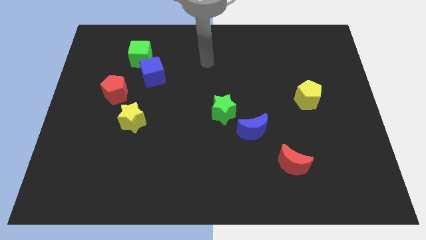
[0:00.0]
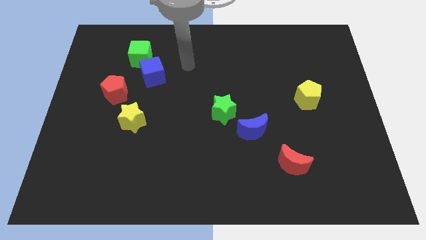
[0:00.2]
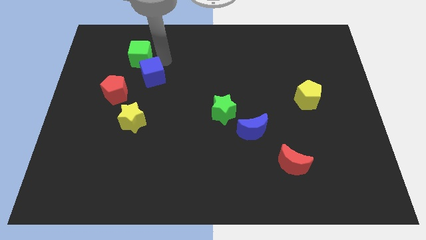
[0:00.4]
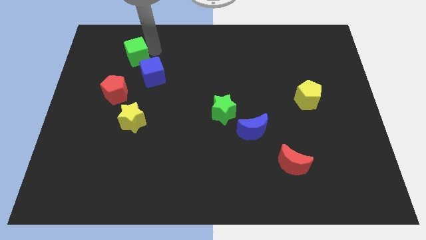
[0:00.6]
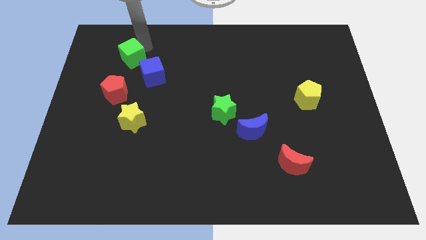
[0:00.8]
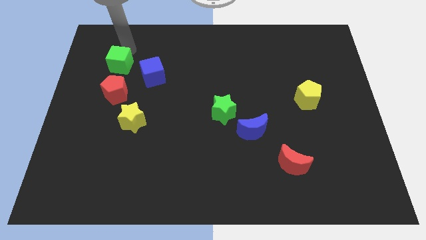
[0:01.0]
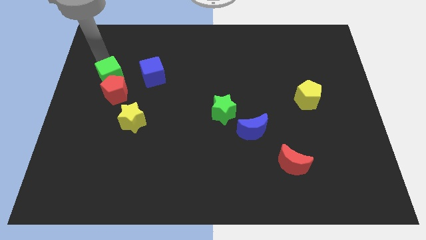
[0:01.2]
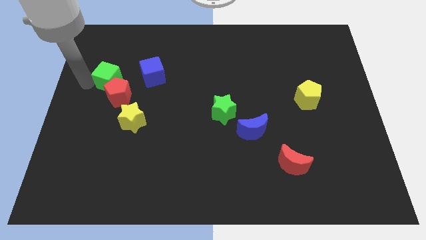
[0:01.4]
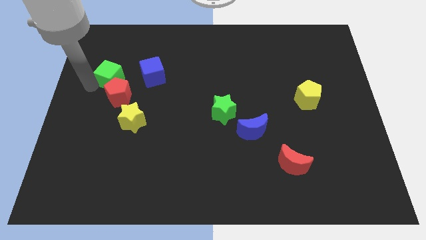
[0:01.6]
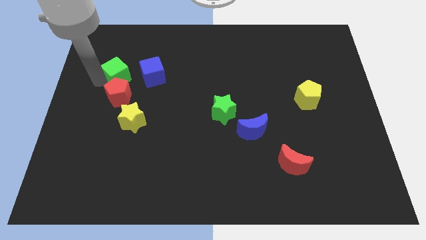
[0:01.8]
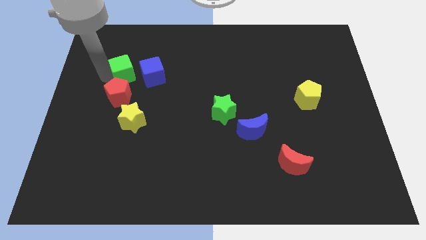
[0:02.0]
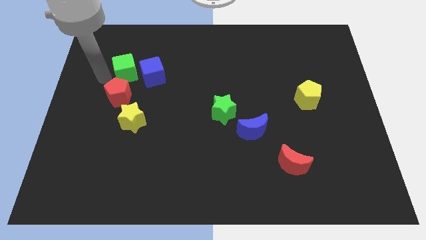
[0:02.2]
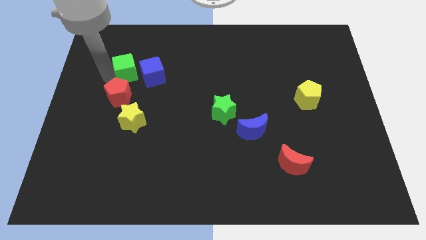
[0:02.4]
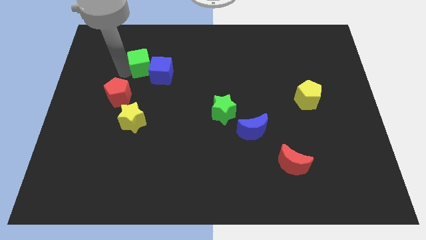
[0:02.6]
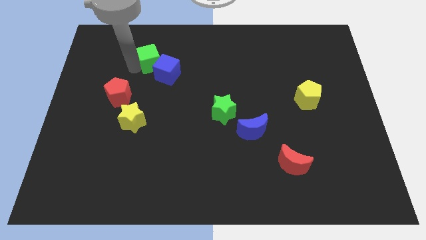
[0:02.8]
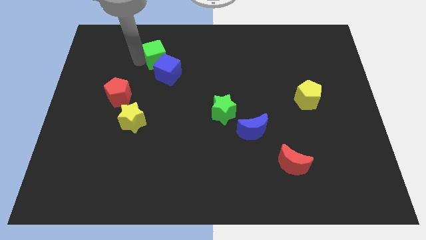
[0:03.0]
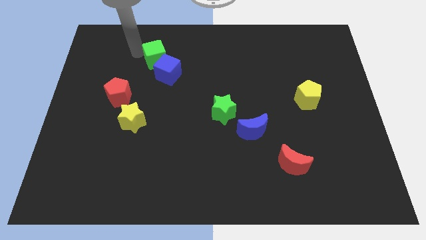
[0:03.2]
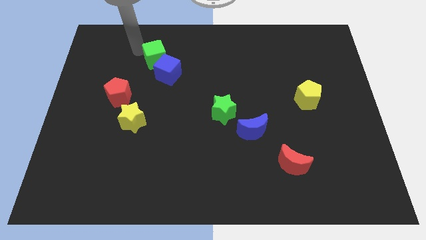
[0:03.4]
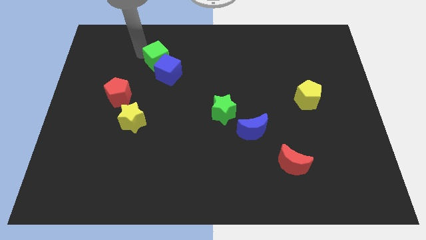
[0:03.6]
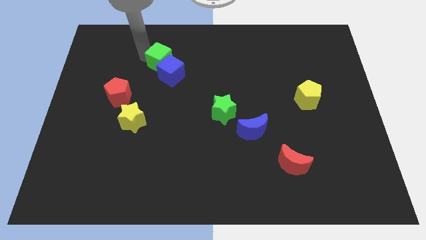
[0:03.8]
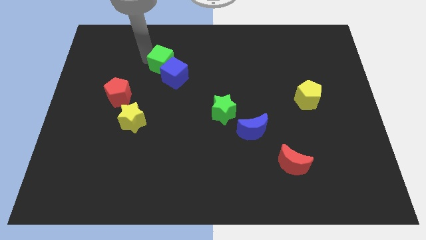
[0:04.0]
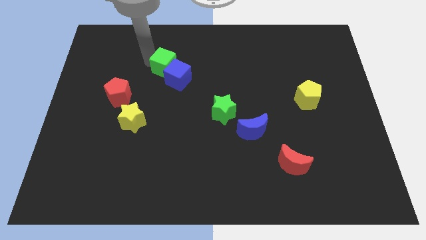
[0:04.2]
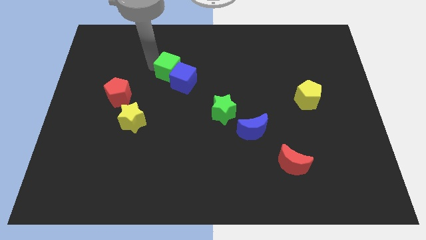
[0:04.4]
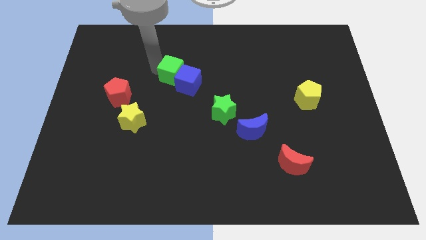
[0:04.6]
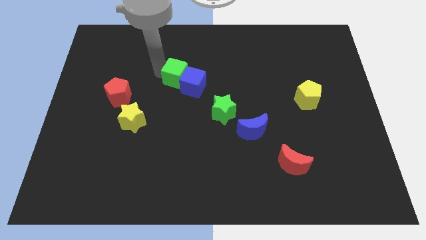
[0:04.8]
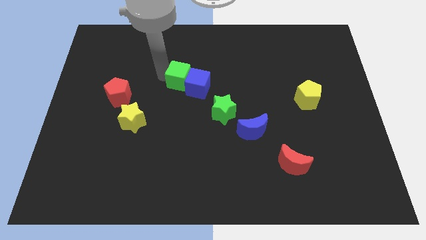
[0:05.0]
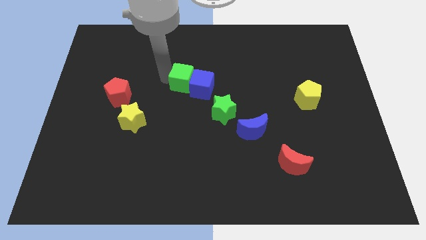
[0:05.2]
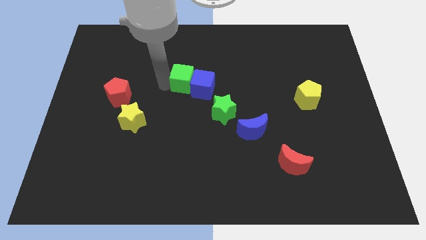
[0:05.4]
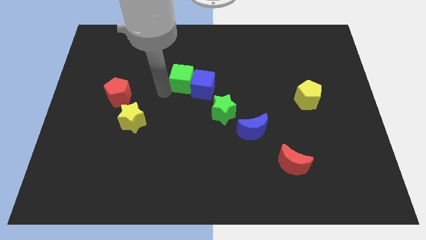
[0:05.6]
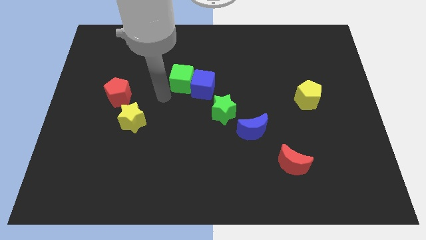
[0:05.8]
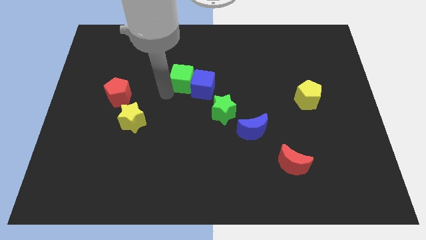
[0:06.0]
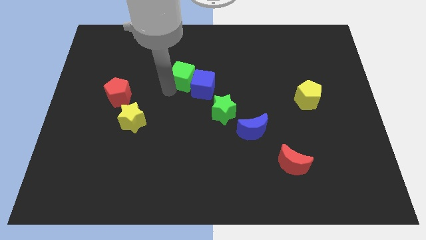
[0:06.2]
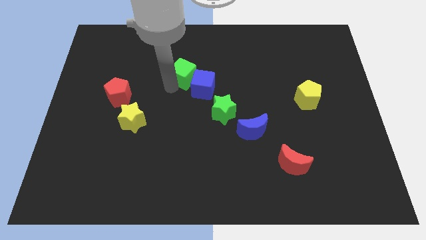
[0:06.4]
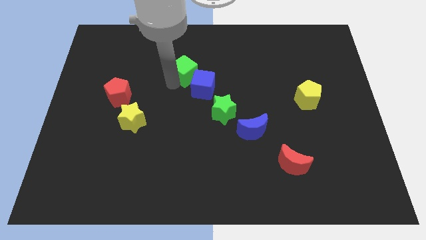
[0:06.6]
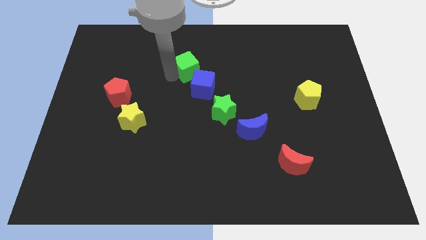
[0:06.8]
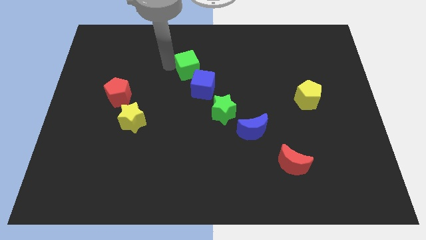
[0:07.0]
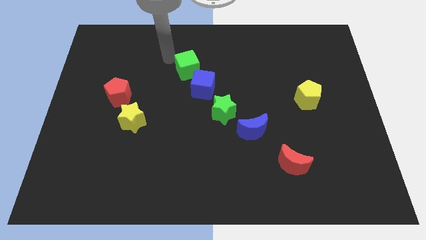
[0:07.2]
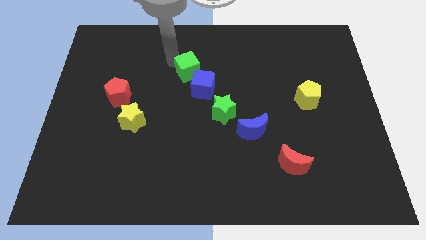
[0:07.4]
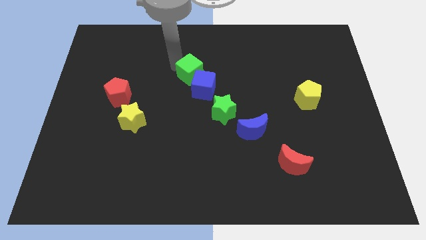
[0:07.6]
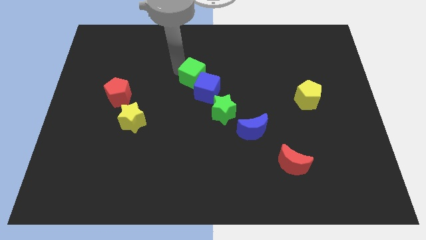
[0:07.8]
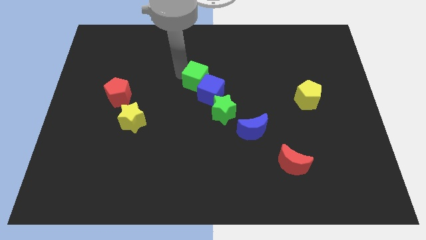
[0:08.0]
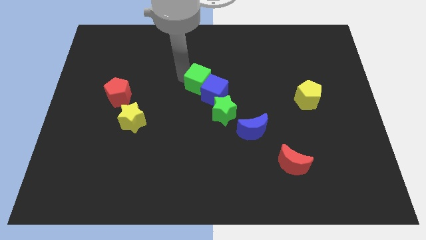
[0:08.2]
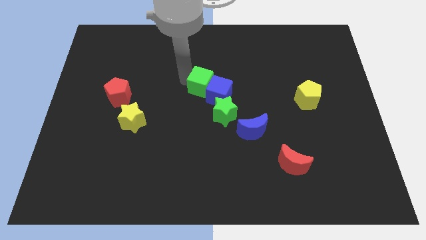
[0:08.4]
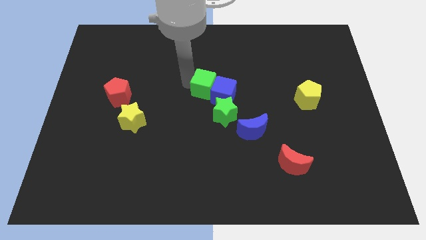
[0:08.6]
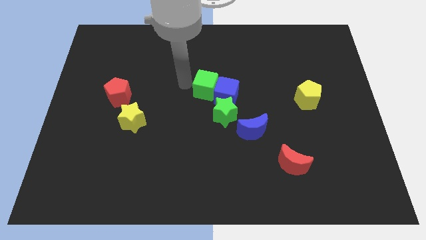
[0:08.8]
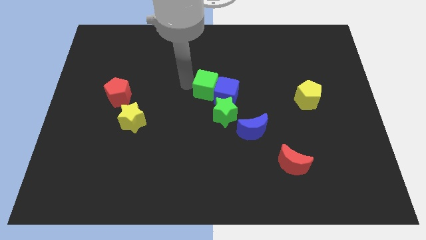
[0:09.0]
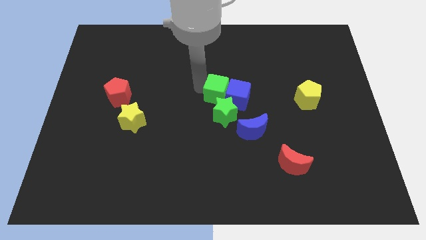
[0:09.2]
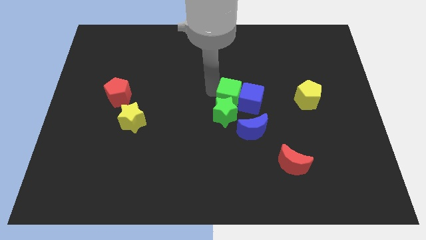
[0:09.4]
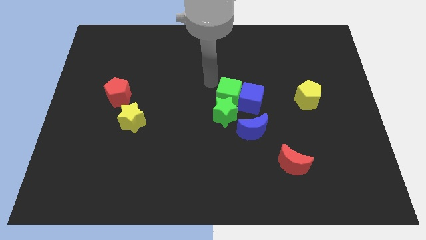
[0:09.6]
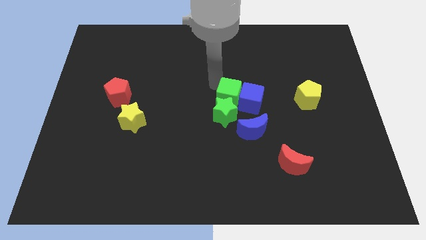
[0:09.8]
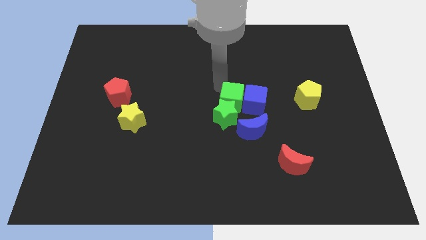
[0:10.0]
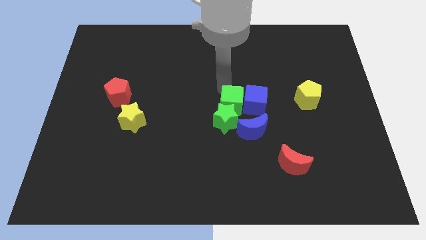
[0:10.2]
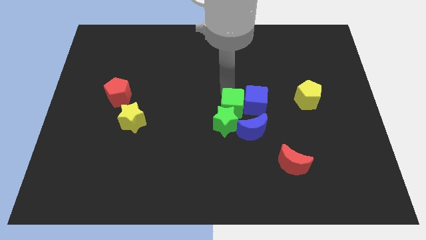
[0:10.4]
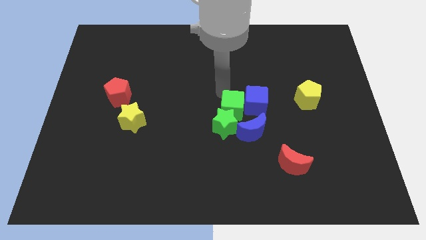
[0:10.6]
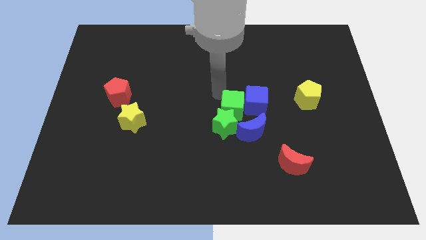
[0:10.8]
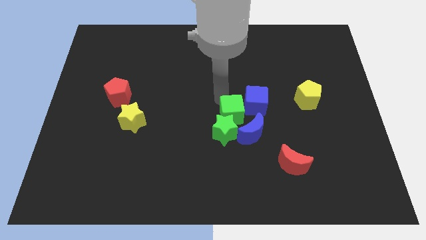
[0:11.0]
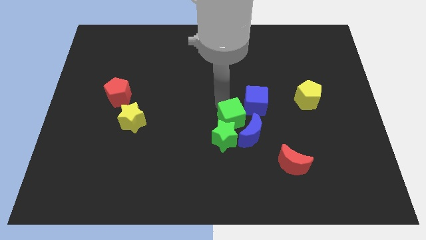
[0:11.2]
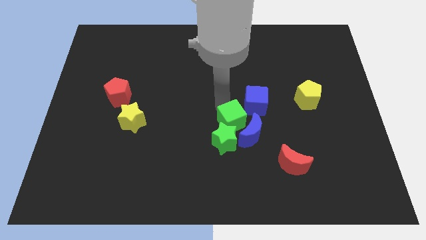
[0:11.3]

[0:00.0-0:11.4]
move the green cube towards the blue moon

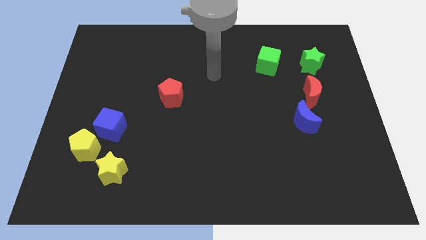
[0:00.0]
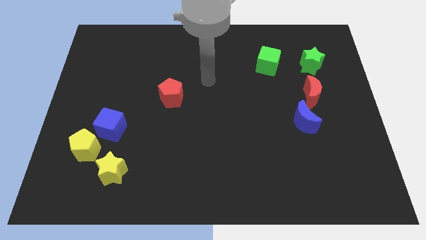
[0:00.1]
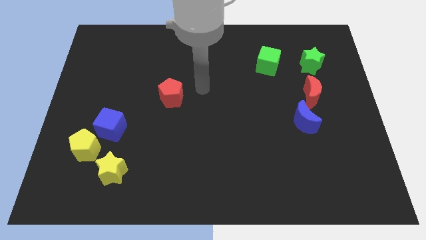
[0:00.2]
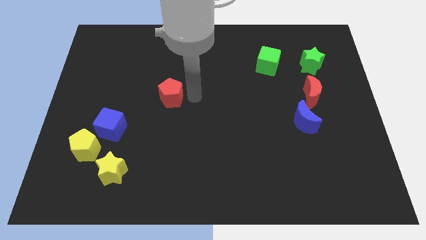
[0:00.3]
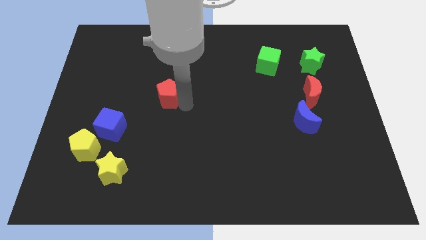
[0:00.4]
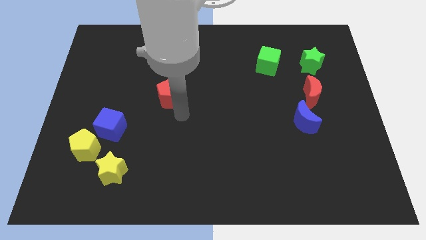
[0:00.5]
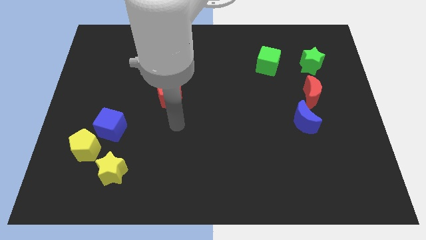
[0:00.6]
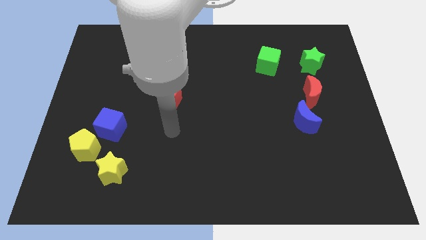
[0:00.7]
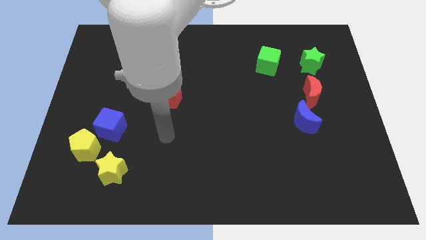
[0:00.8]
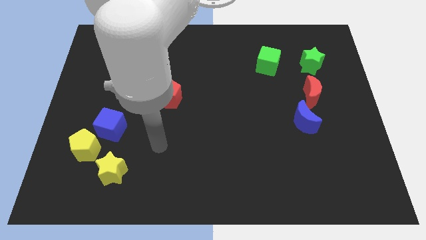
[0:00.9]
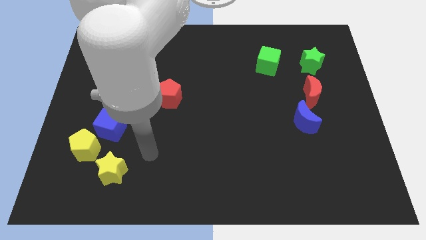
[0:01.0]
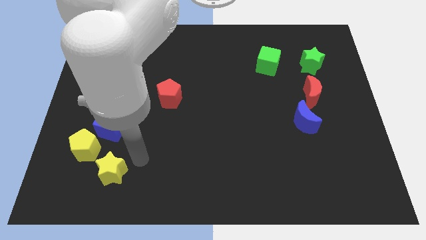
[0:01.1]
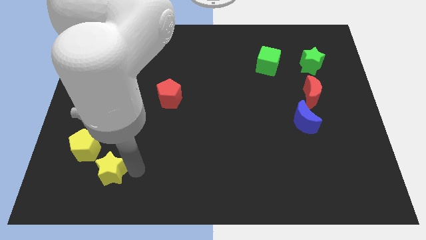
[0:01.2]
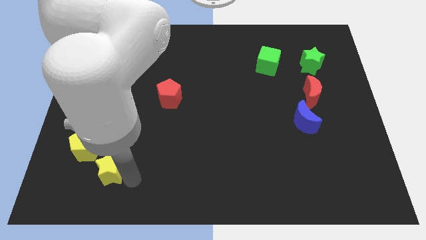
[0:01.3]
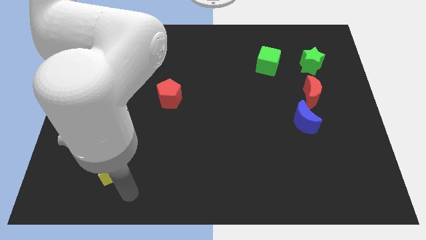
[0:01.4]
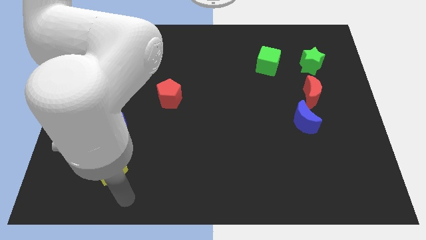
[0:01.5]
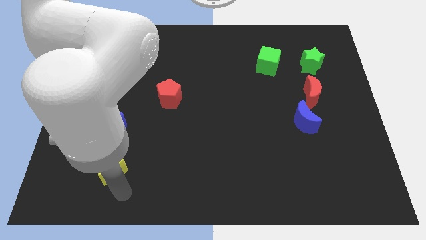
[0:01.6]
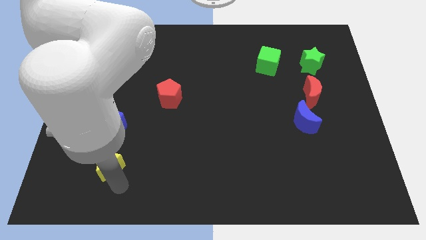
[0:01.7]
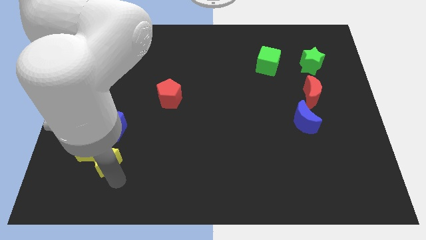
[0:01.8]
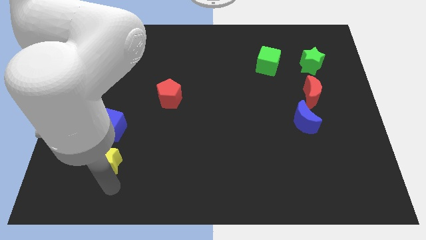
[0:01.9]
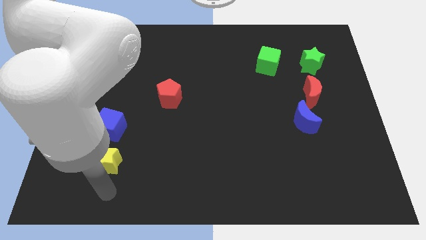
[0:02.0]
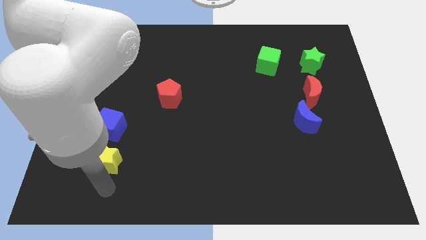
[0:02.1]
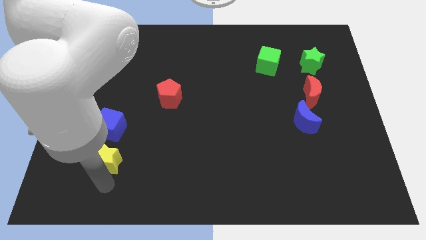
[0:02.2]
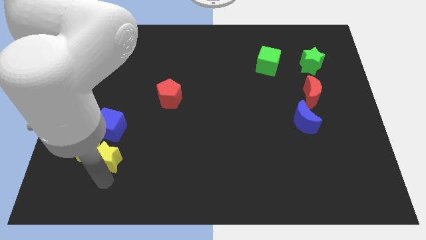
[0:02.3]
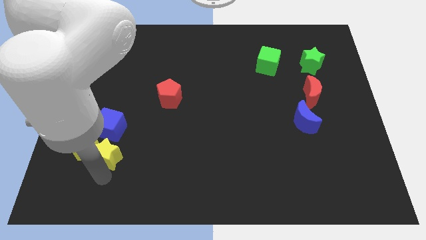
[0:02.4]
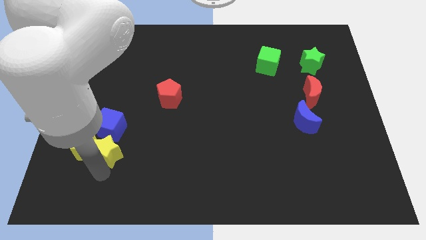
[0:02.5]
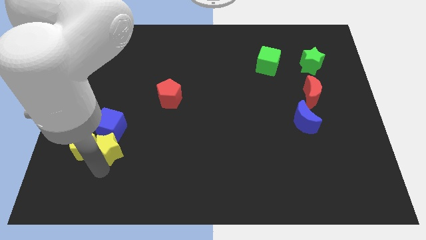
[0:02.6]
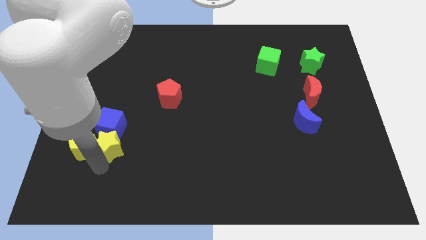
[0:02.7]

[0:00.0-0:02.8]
push the yellow star to the blue cube
